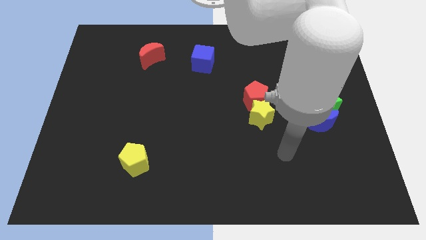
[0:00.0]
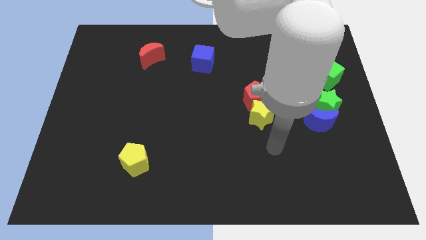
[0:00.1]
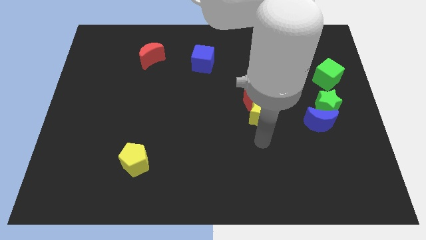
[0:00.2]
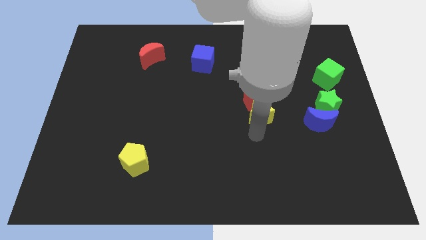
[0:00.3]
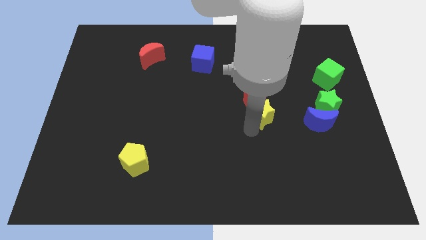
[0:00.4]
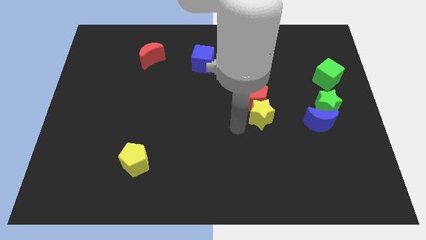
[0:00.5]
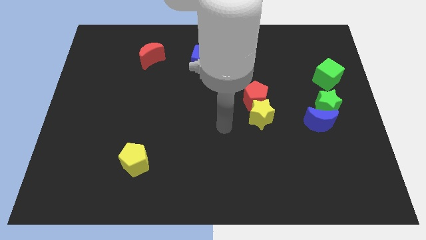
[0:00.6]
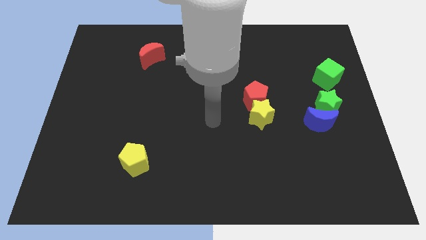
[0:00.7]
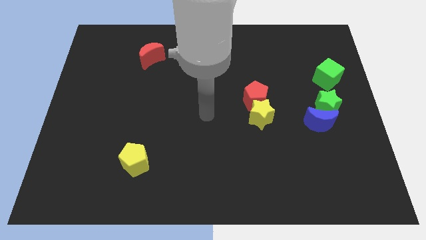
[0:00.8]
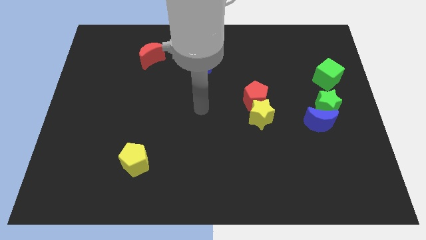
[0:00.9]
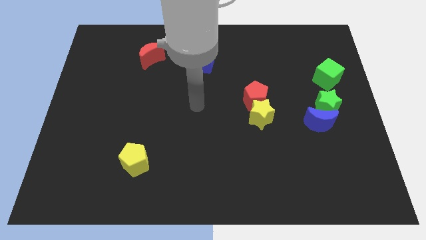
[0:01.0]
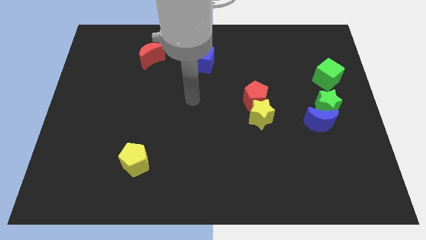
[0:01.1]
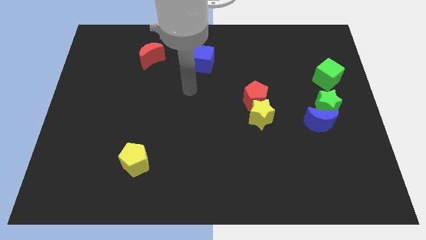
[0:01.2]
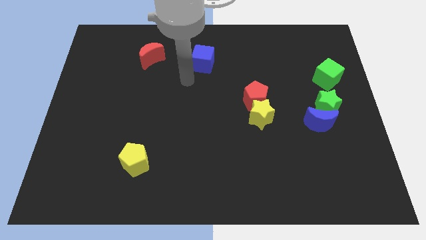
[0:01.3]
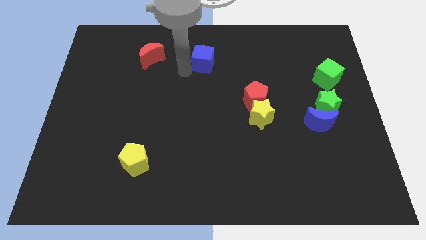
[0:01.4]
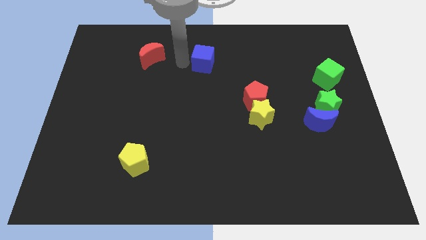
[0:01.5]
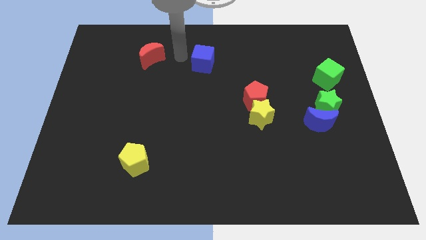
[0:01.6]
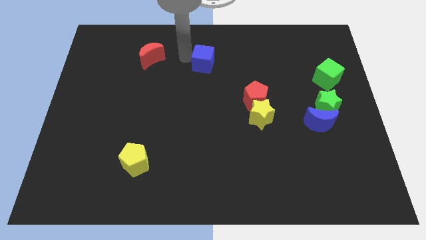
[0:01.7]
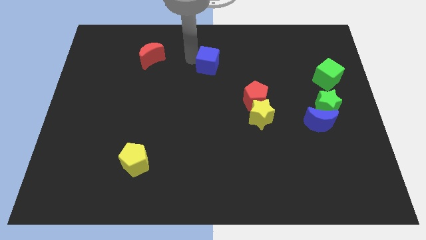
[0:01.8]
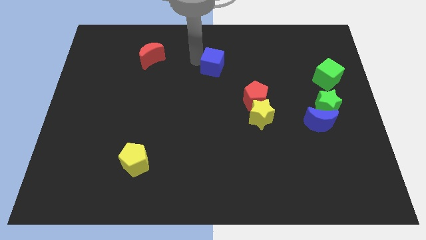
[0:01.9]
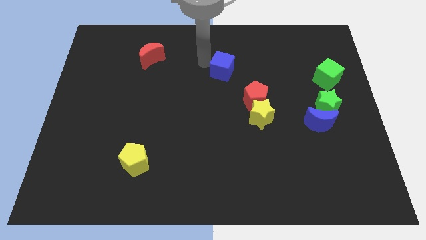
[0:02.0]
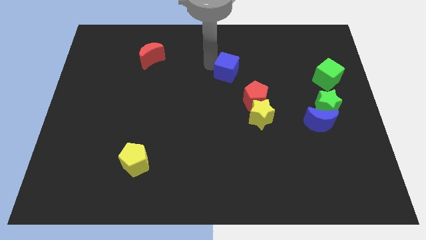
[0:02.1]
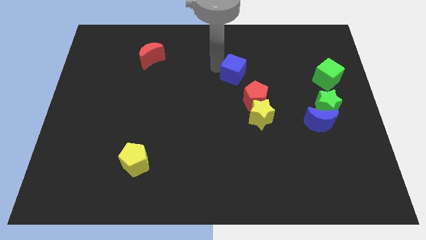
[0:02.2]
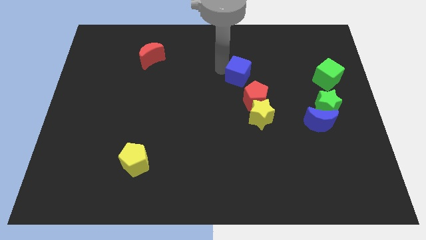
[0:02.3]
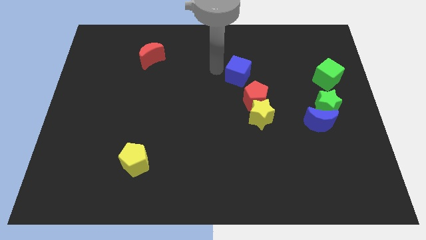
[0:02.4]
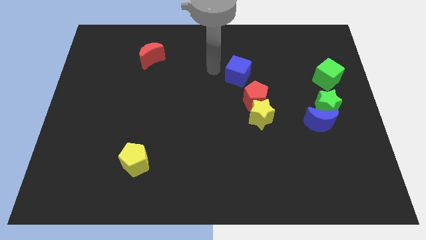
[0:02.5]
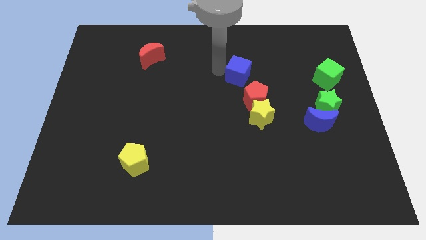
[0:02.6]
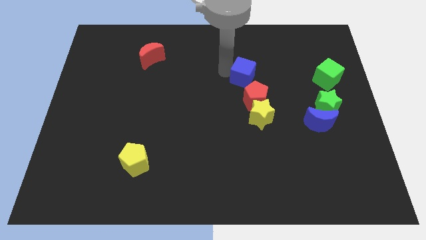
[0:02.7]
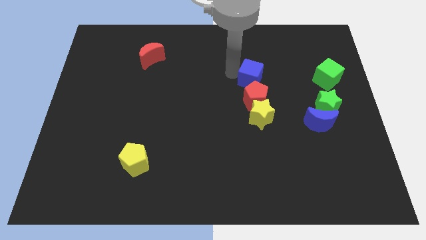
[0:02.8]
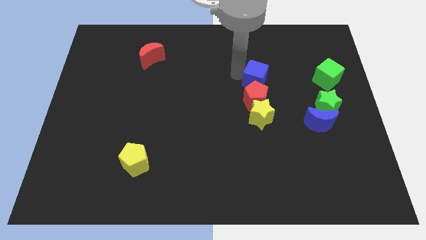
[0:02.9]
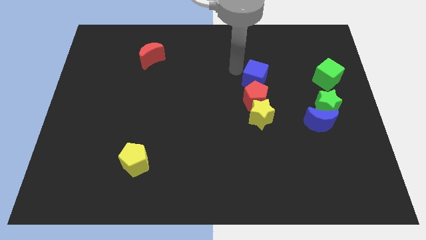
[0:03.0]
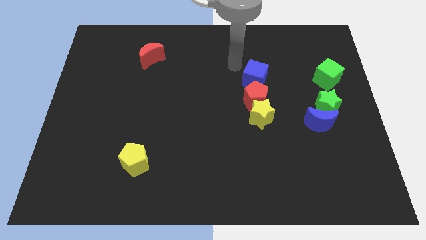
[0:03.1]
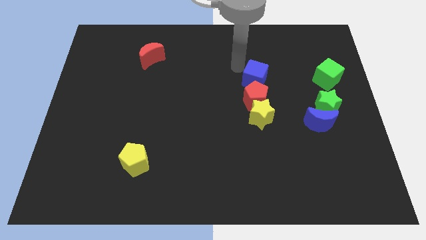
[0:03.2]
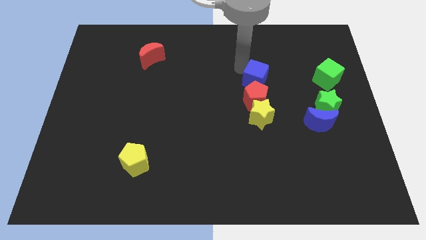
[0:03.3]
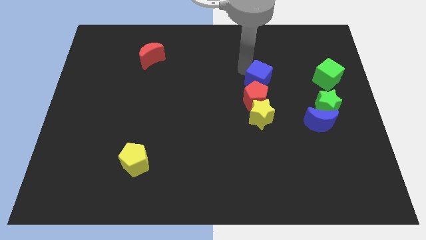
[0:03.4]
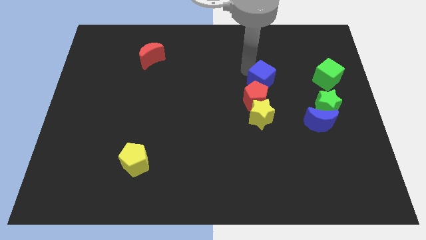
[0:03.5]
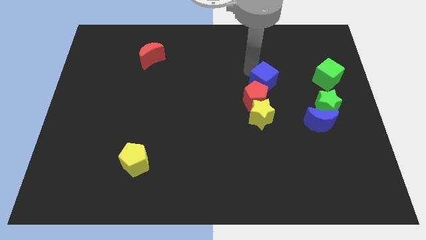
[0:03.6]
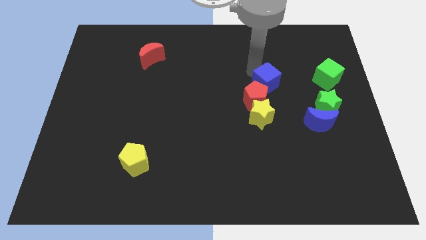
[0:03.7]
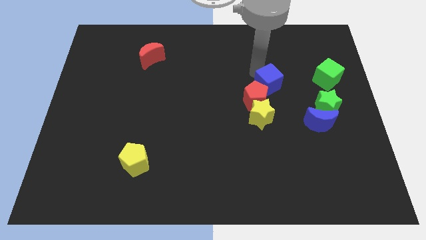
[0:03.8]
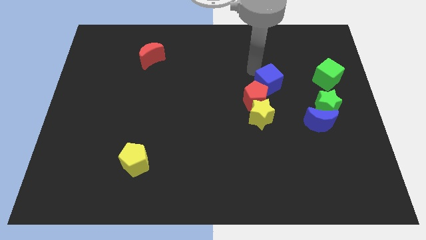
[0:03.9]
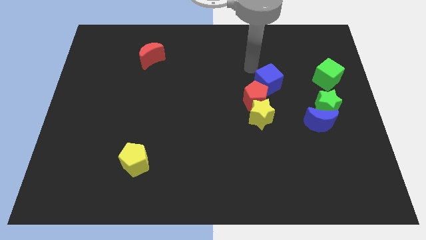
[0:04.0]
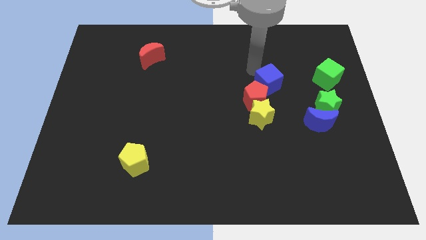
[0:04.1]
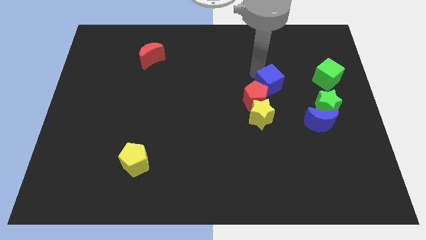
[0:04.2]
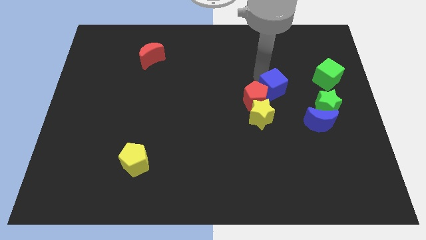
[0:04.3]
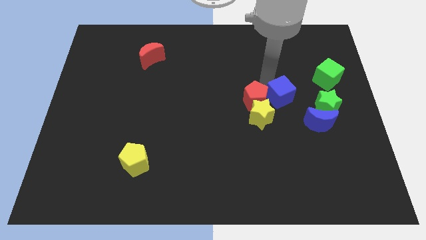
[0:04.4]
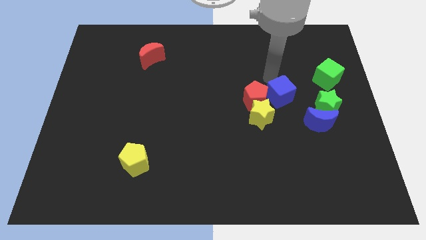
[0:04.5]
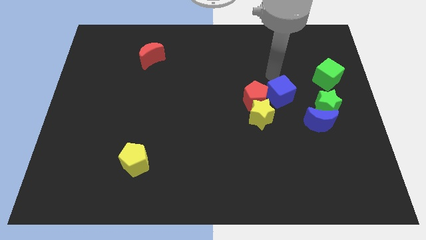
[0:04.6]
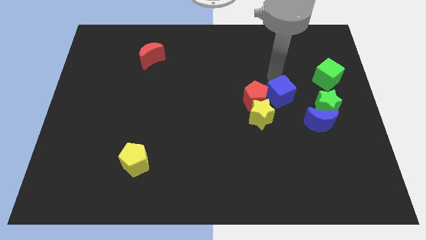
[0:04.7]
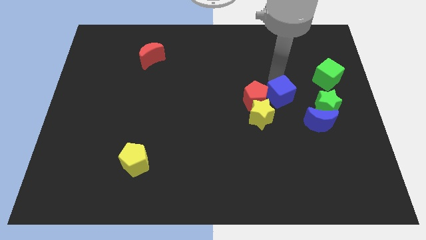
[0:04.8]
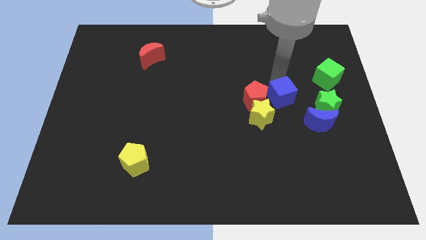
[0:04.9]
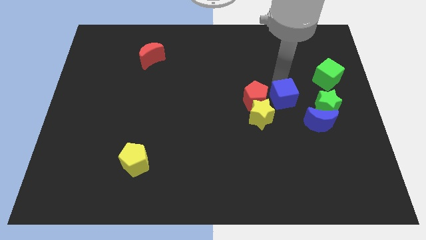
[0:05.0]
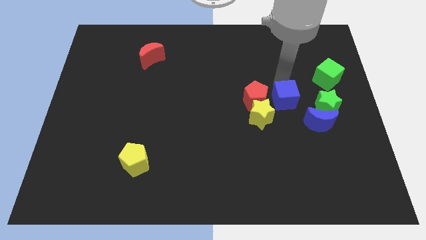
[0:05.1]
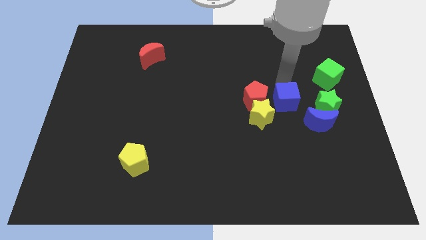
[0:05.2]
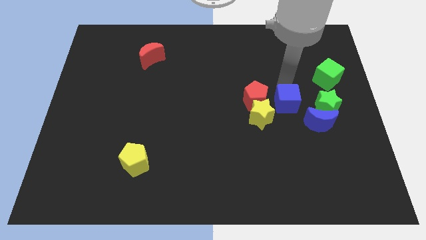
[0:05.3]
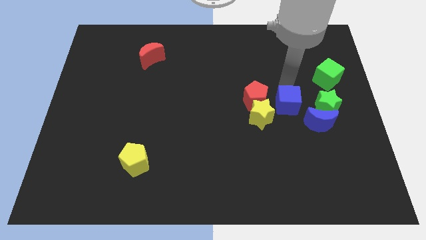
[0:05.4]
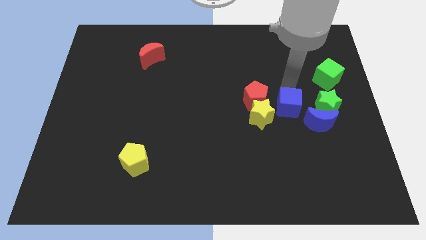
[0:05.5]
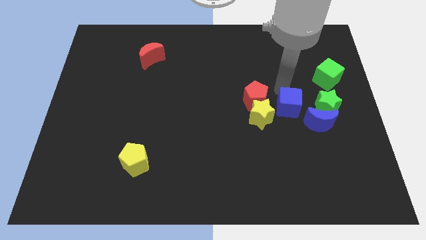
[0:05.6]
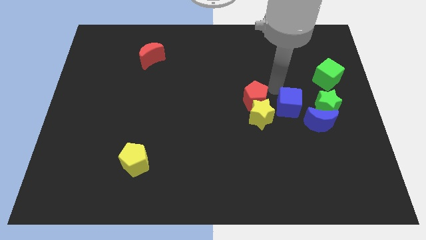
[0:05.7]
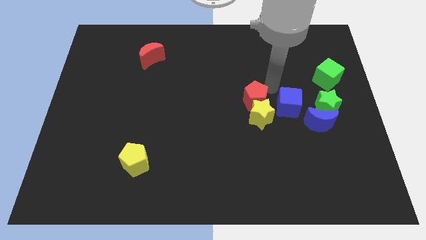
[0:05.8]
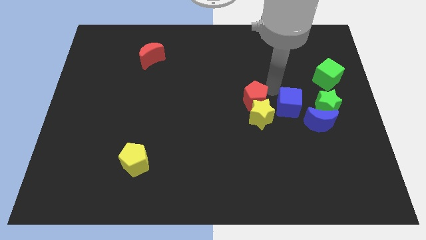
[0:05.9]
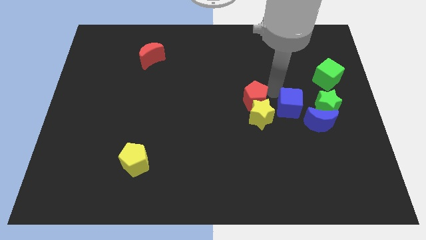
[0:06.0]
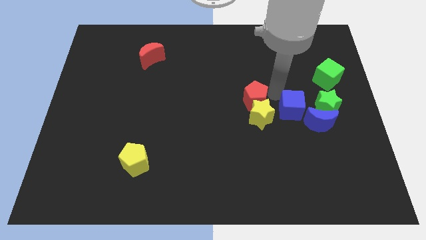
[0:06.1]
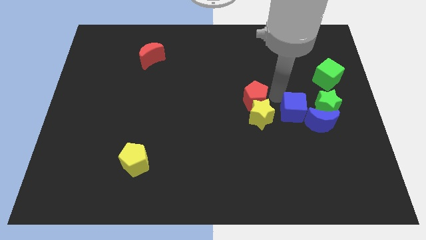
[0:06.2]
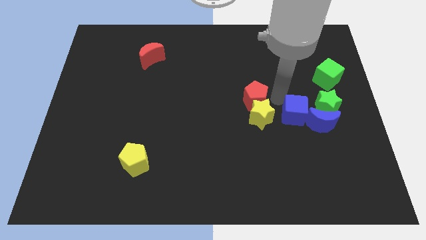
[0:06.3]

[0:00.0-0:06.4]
push the blue cube diagonally down and to the left of the green star

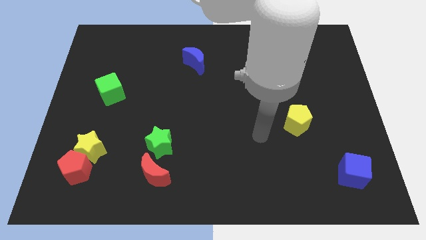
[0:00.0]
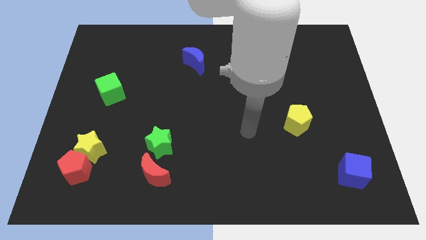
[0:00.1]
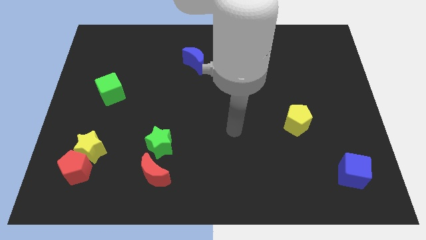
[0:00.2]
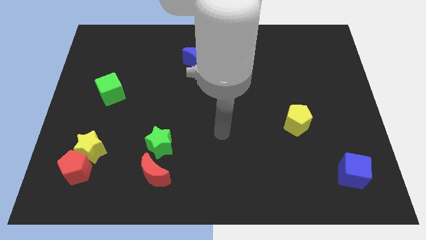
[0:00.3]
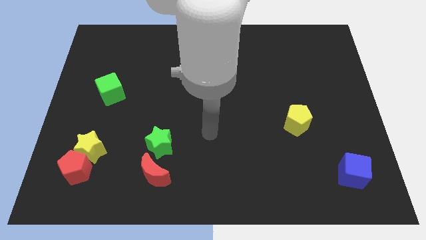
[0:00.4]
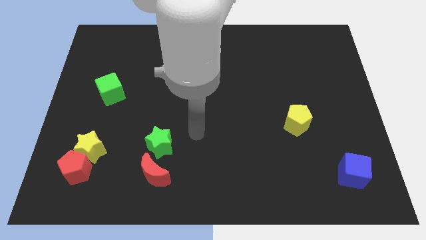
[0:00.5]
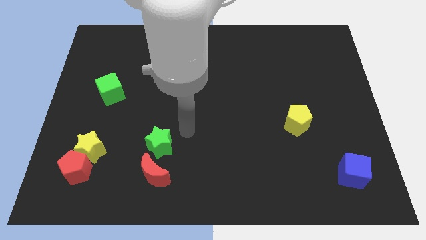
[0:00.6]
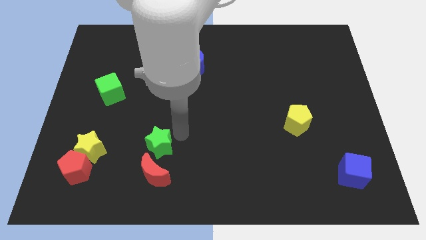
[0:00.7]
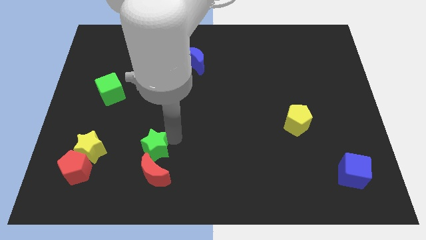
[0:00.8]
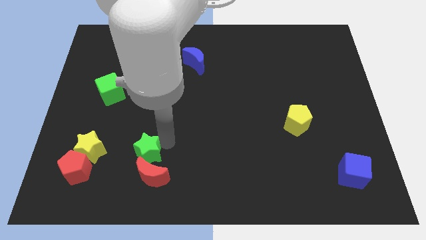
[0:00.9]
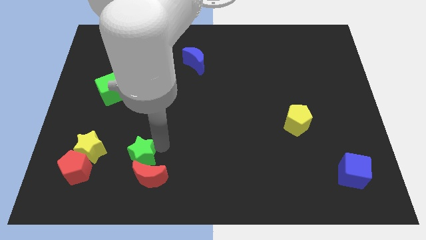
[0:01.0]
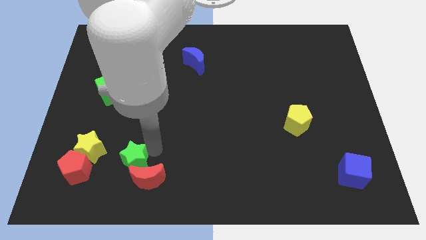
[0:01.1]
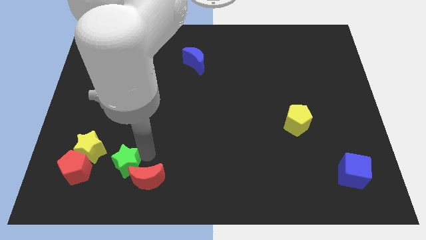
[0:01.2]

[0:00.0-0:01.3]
move the green star to the bottom right side of the yellow star
